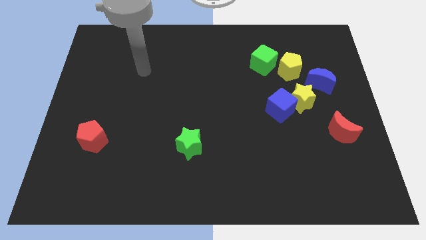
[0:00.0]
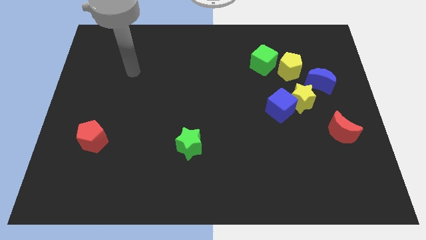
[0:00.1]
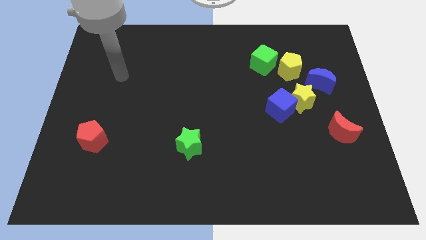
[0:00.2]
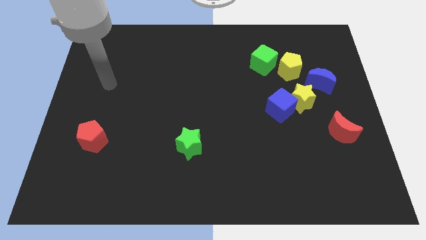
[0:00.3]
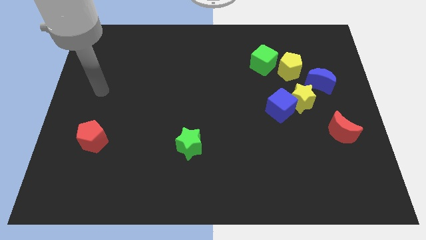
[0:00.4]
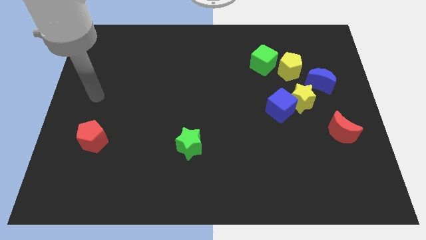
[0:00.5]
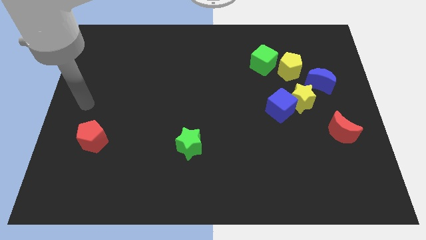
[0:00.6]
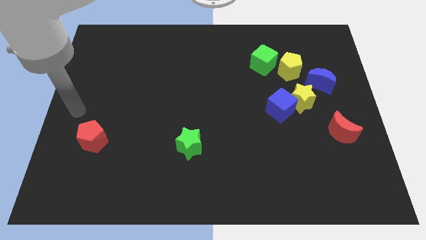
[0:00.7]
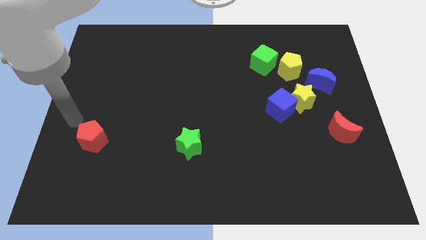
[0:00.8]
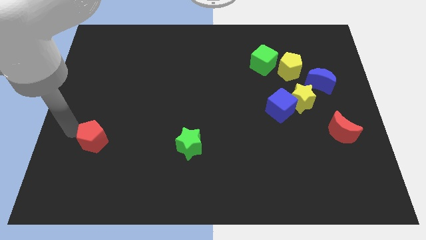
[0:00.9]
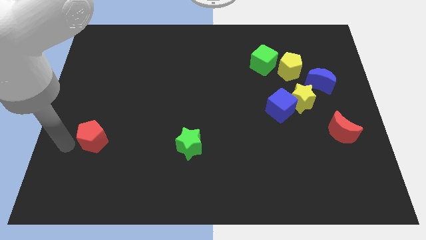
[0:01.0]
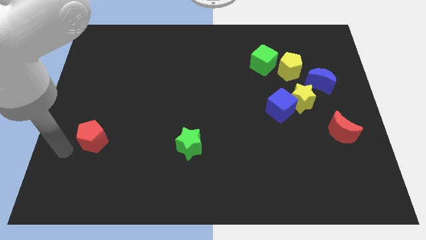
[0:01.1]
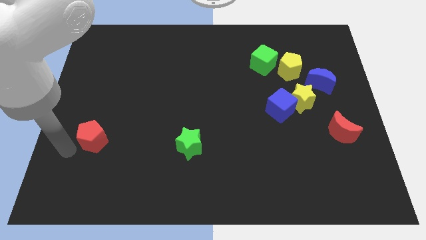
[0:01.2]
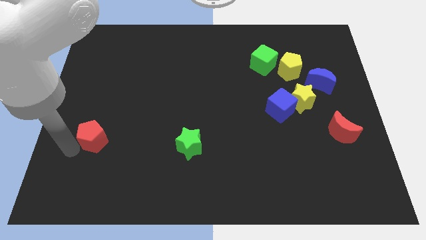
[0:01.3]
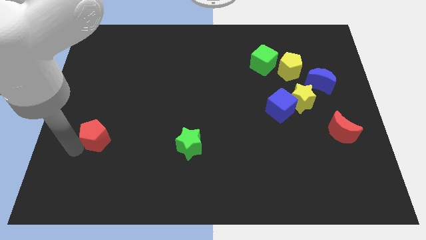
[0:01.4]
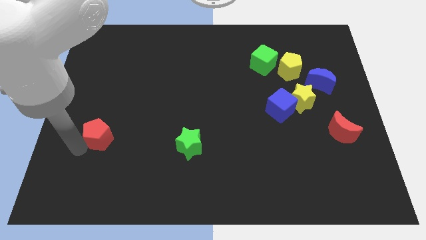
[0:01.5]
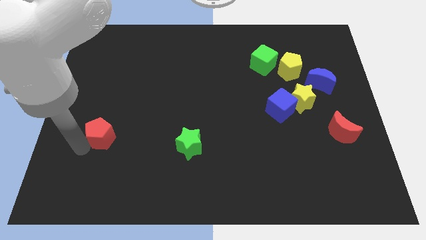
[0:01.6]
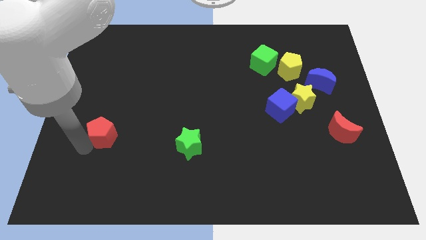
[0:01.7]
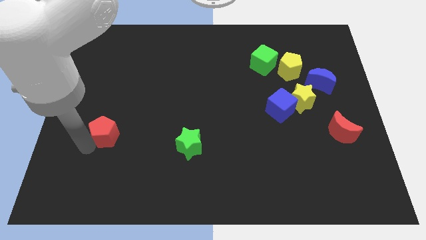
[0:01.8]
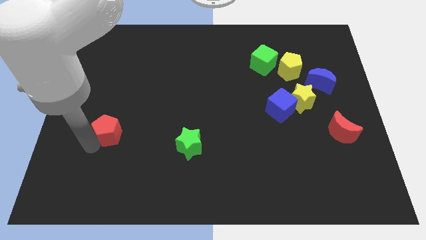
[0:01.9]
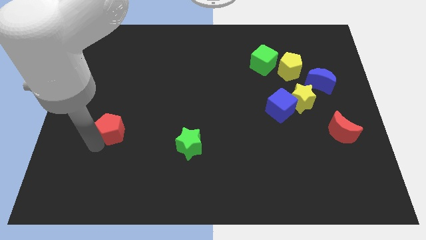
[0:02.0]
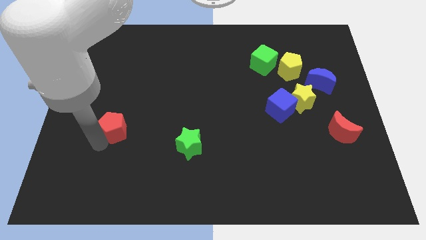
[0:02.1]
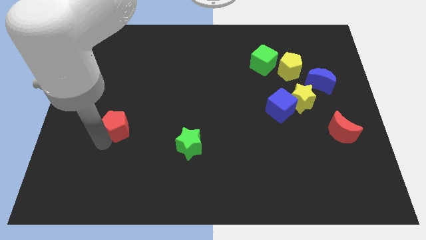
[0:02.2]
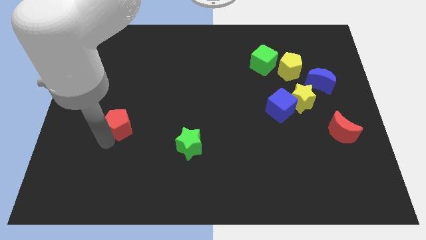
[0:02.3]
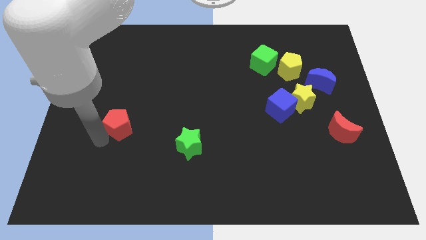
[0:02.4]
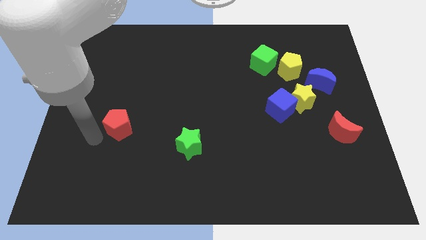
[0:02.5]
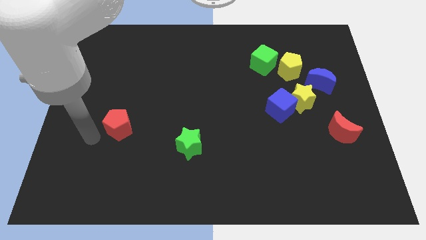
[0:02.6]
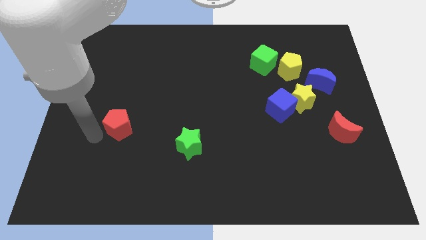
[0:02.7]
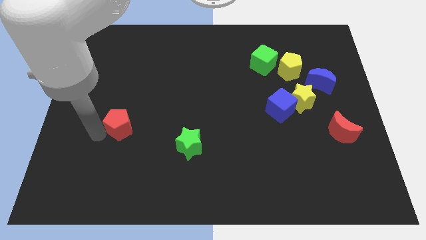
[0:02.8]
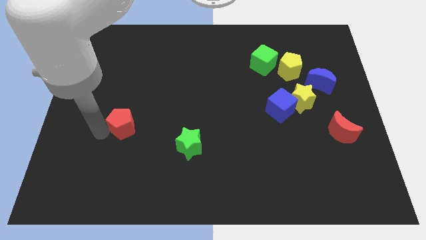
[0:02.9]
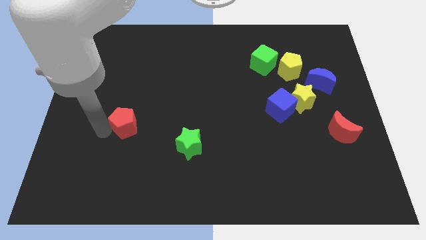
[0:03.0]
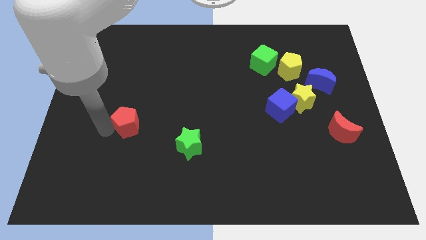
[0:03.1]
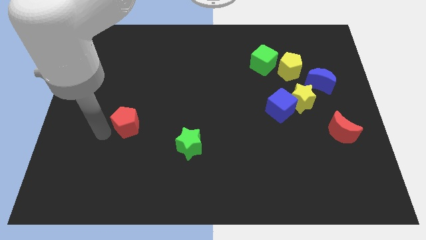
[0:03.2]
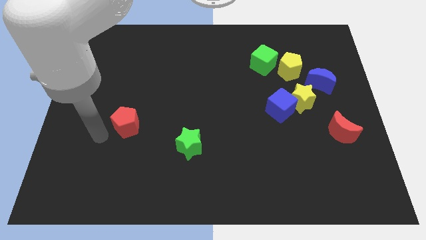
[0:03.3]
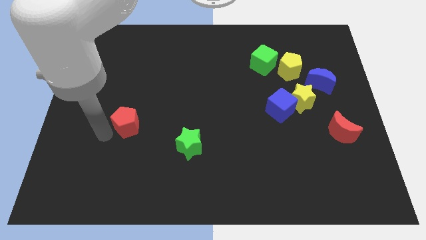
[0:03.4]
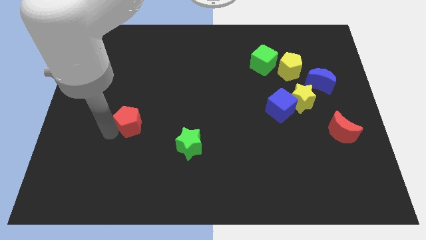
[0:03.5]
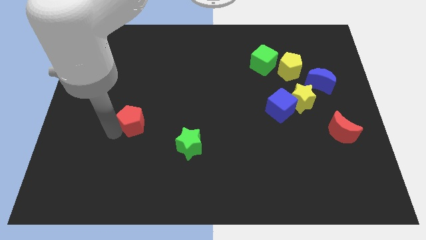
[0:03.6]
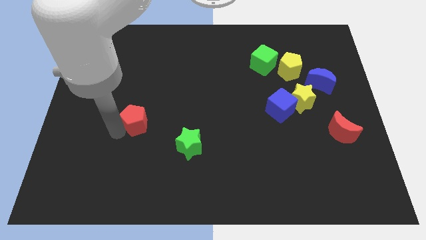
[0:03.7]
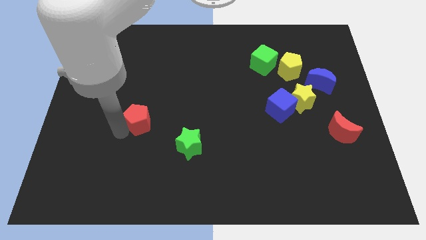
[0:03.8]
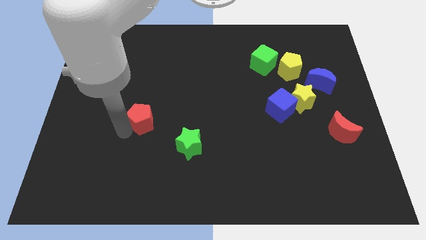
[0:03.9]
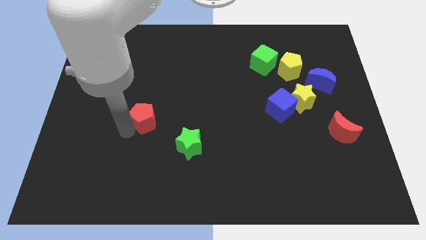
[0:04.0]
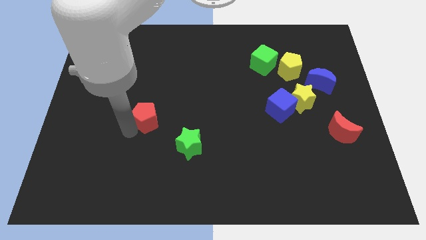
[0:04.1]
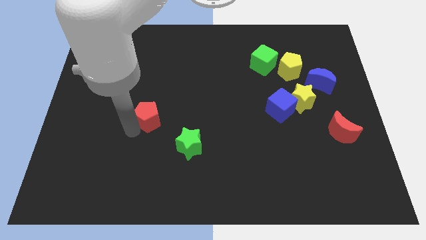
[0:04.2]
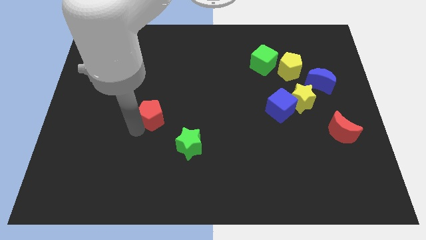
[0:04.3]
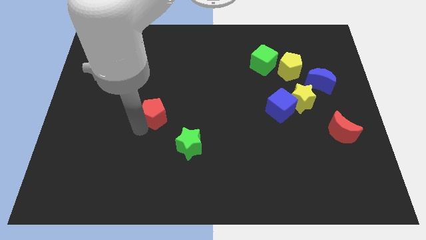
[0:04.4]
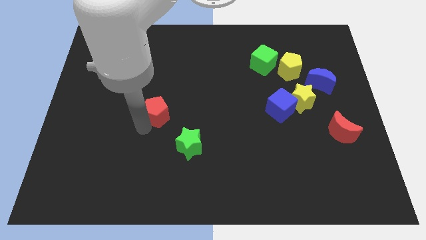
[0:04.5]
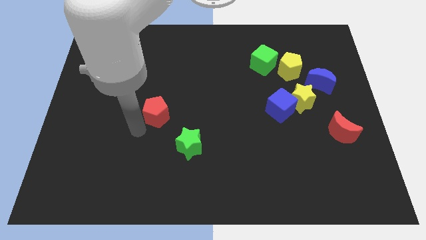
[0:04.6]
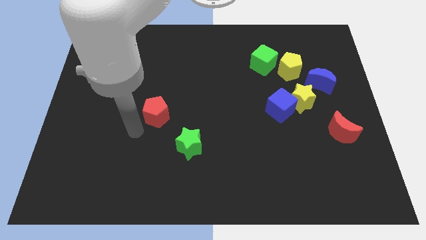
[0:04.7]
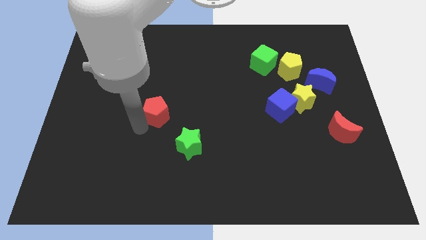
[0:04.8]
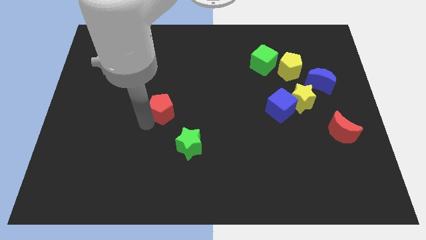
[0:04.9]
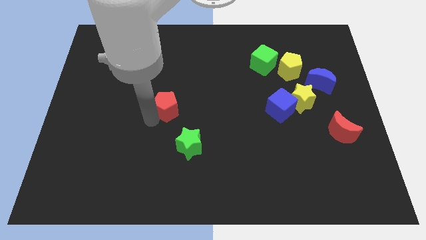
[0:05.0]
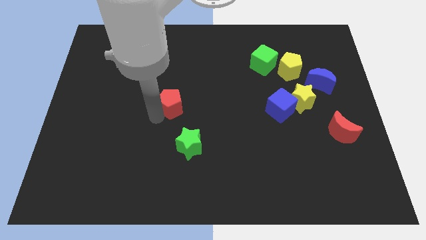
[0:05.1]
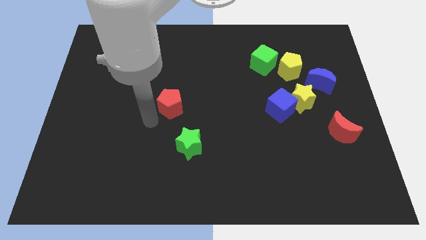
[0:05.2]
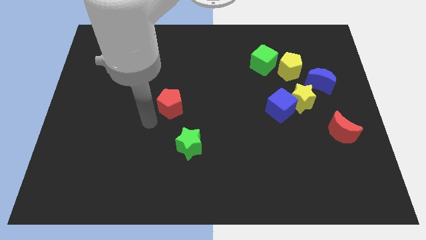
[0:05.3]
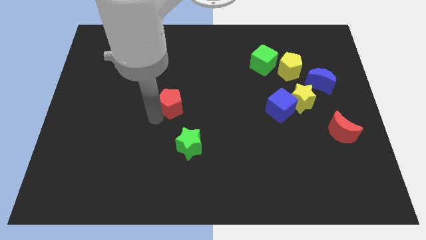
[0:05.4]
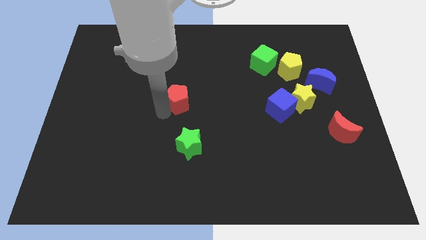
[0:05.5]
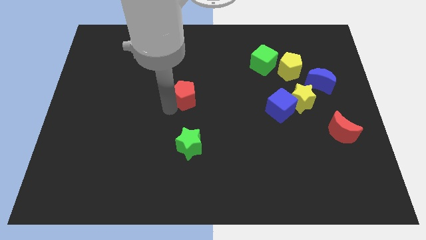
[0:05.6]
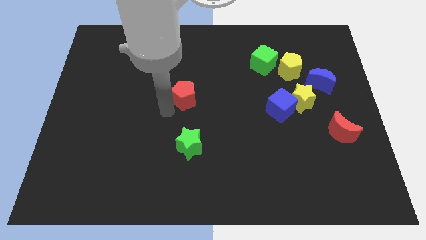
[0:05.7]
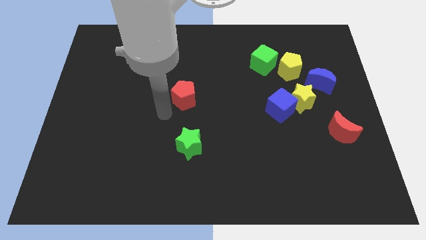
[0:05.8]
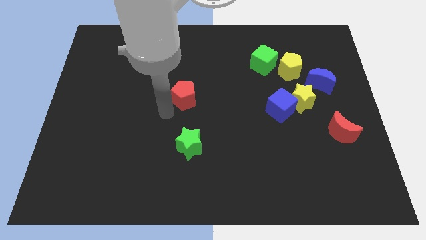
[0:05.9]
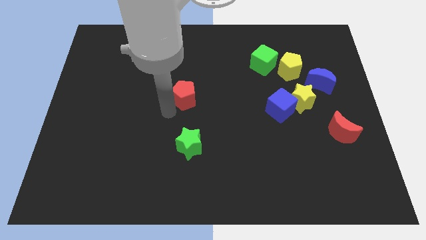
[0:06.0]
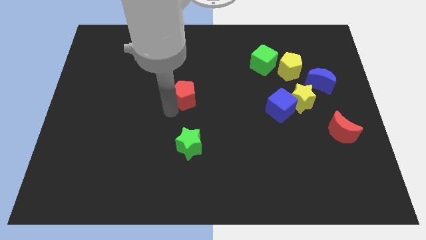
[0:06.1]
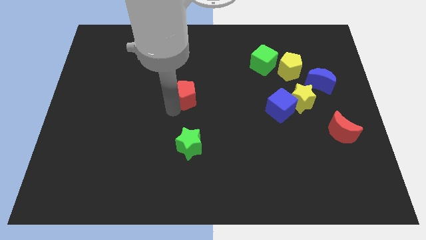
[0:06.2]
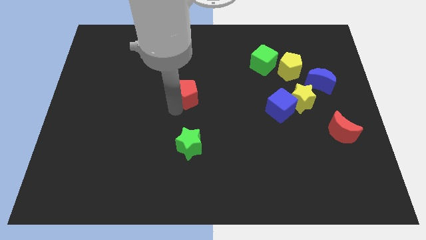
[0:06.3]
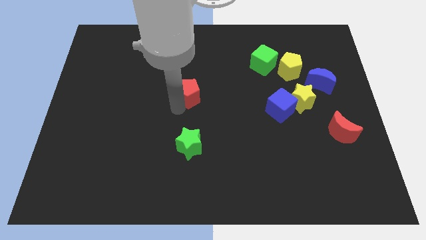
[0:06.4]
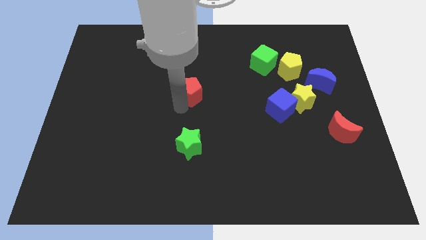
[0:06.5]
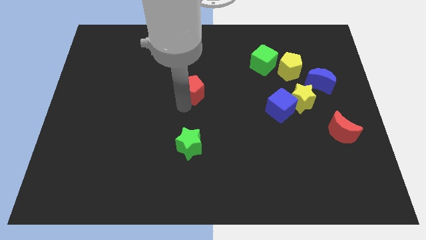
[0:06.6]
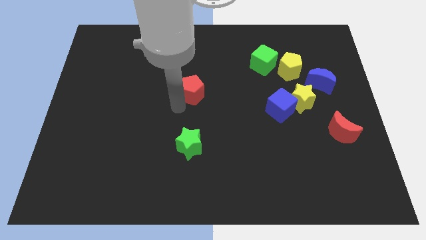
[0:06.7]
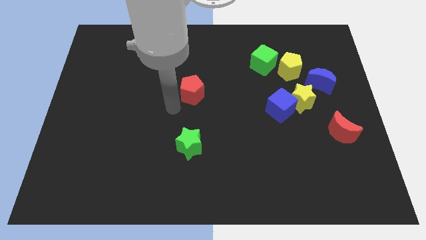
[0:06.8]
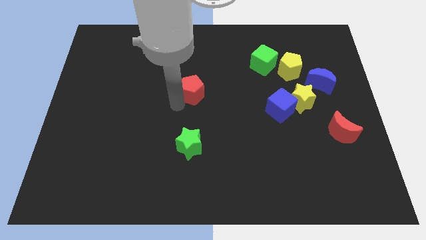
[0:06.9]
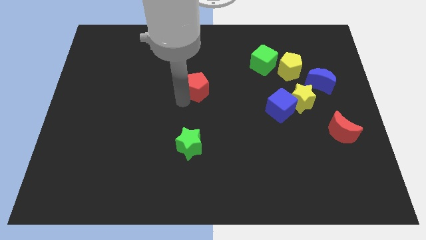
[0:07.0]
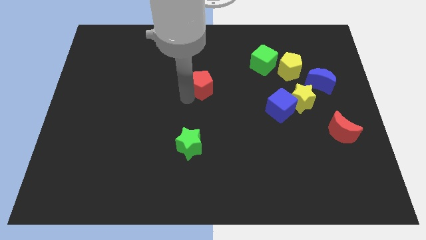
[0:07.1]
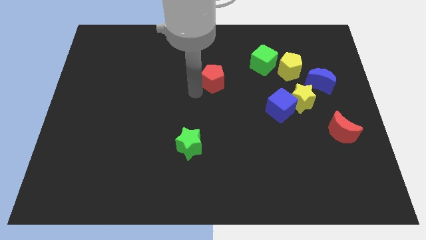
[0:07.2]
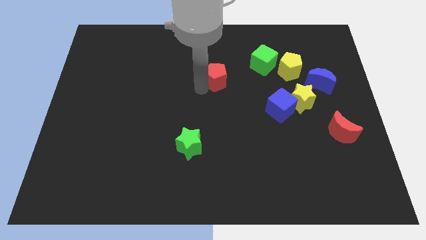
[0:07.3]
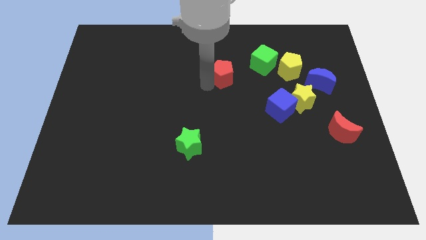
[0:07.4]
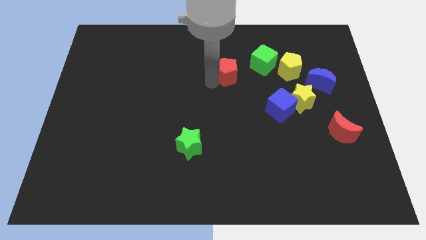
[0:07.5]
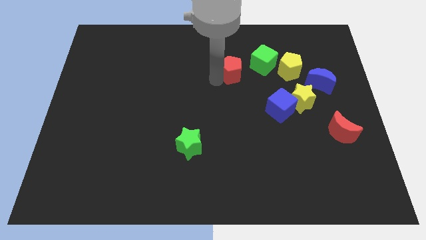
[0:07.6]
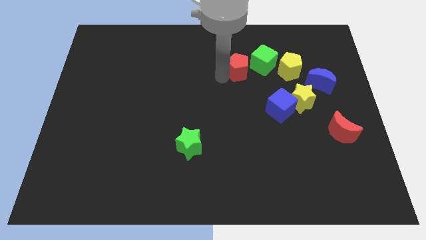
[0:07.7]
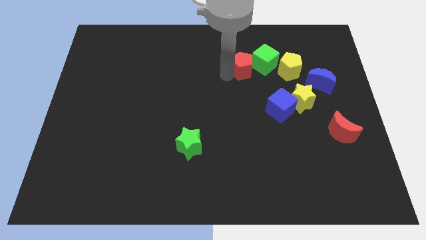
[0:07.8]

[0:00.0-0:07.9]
put the red pentagon to the green cube
